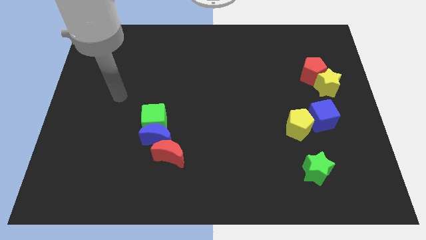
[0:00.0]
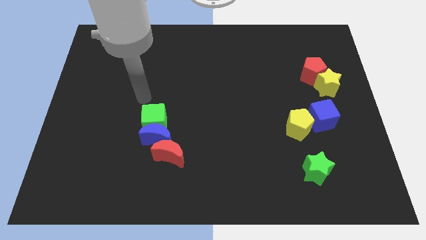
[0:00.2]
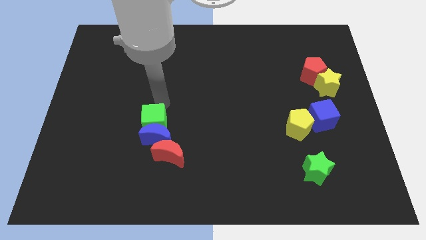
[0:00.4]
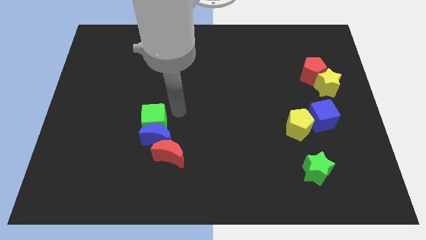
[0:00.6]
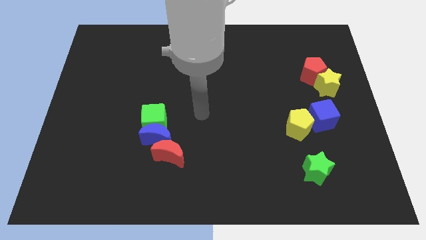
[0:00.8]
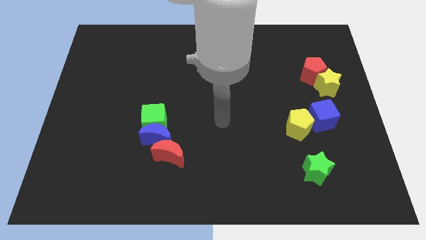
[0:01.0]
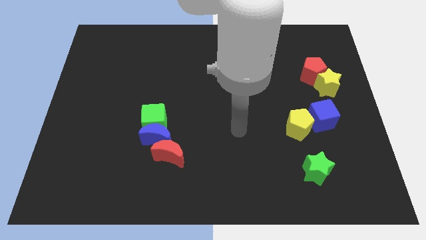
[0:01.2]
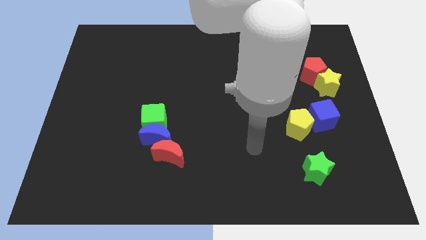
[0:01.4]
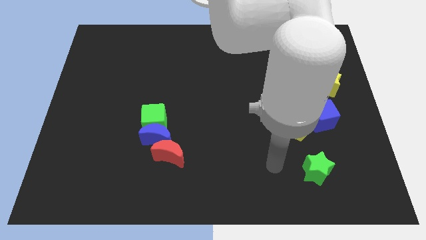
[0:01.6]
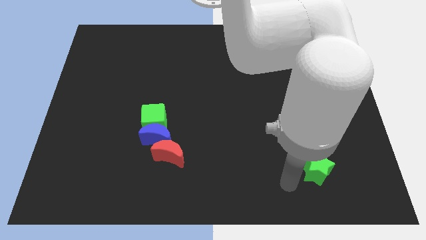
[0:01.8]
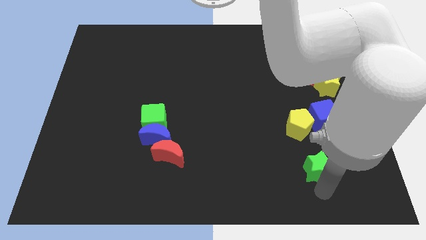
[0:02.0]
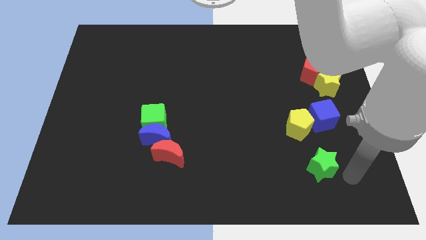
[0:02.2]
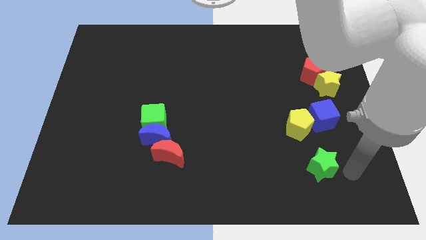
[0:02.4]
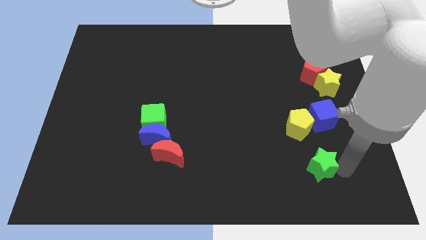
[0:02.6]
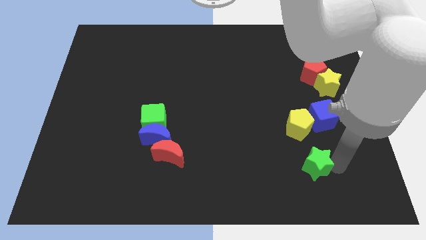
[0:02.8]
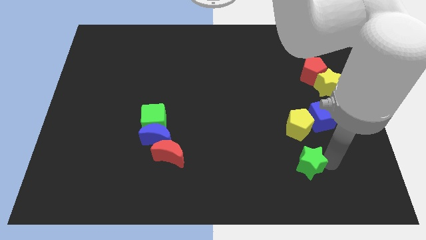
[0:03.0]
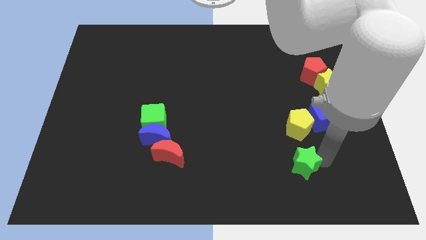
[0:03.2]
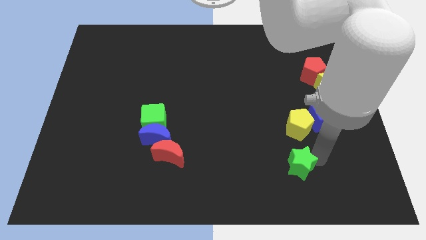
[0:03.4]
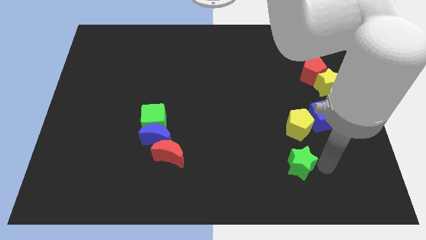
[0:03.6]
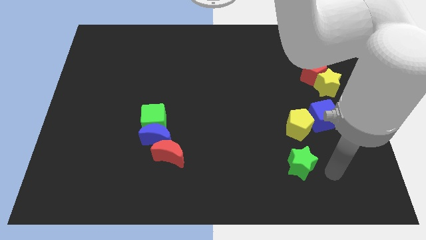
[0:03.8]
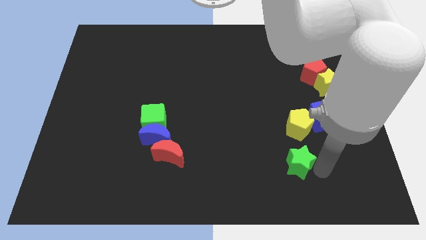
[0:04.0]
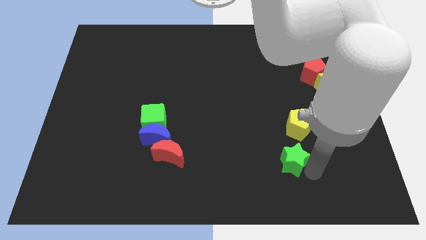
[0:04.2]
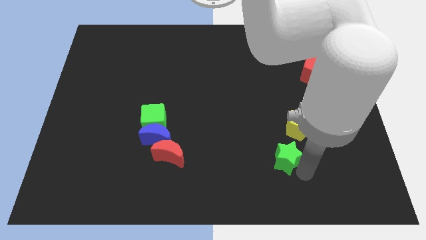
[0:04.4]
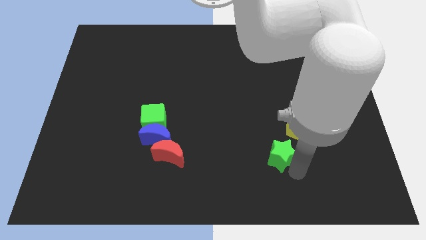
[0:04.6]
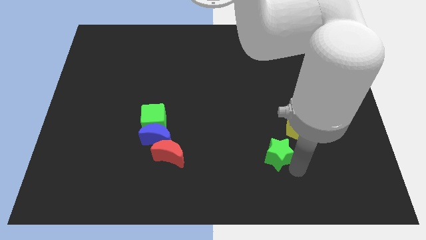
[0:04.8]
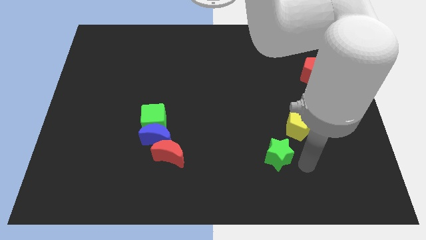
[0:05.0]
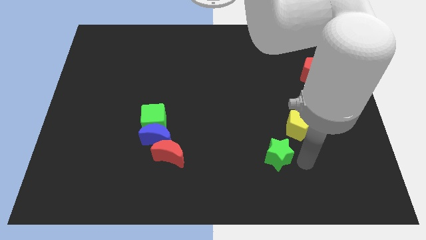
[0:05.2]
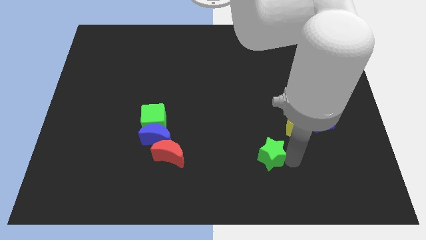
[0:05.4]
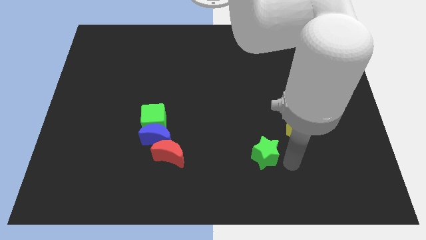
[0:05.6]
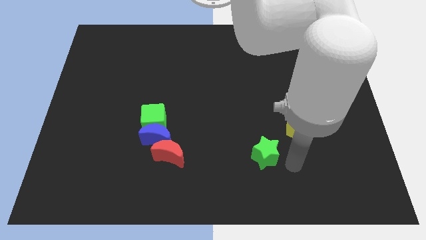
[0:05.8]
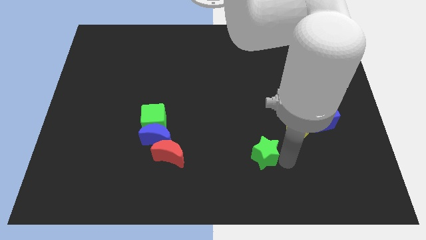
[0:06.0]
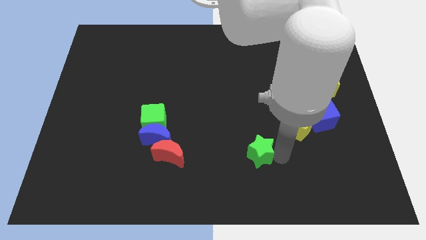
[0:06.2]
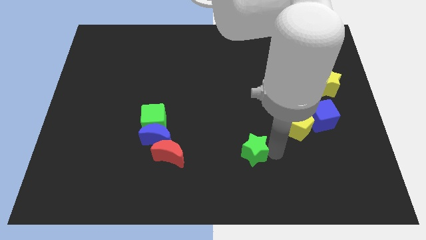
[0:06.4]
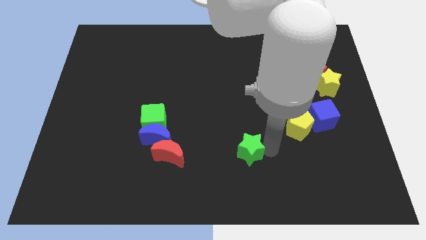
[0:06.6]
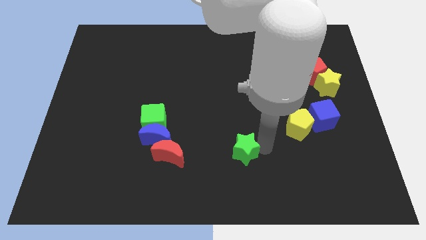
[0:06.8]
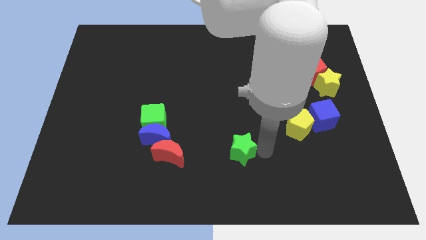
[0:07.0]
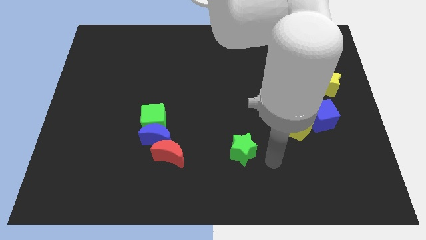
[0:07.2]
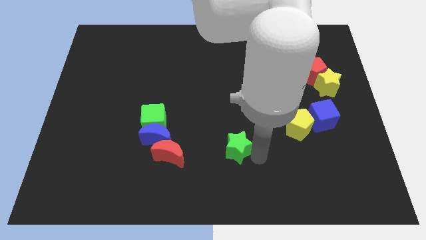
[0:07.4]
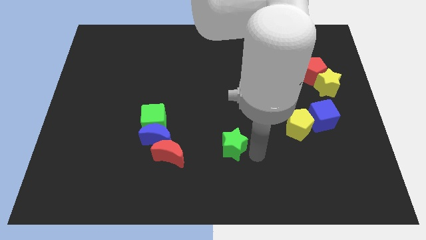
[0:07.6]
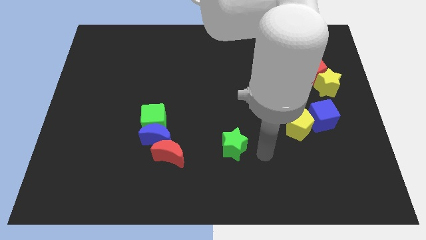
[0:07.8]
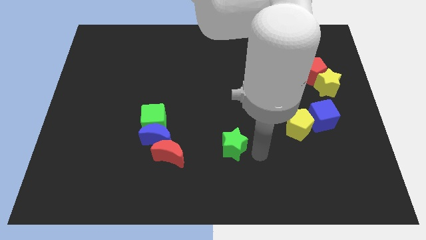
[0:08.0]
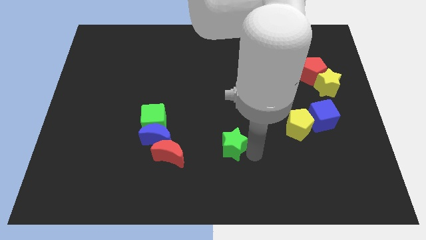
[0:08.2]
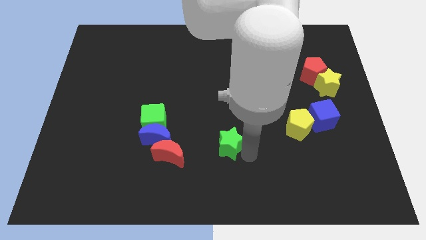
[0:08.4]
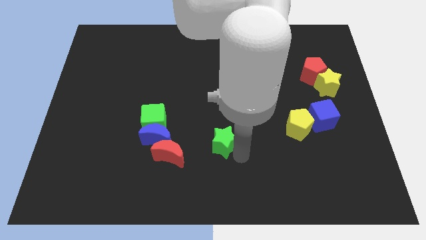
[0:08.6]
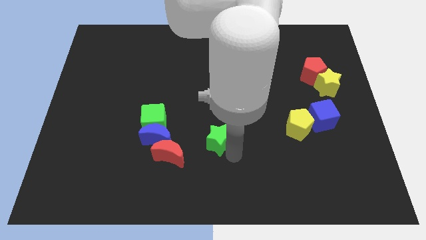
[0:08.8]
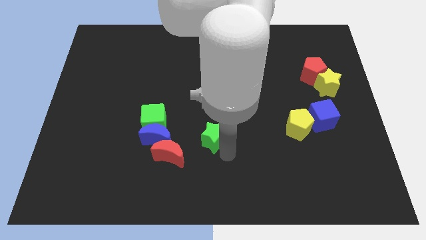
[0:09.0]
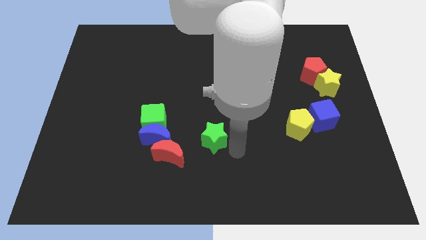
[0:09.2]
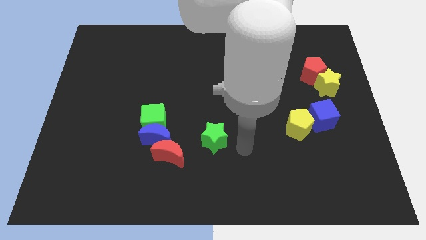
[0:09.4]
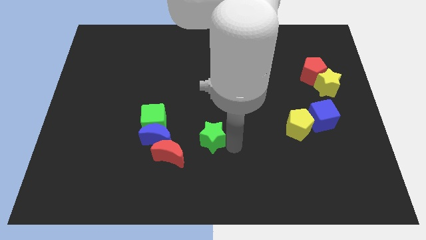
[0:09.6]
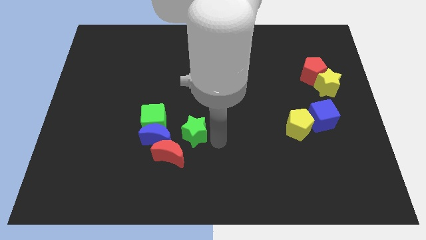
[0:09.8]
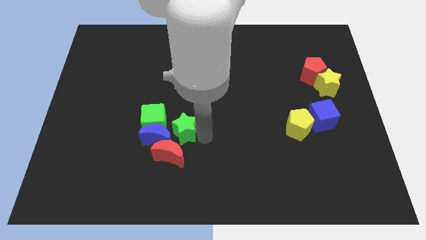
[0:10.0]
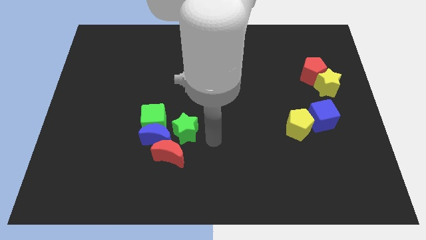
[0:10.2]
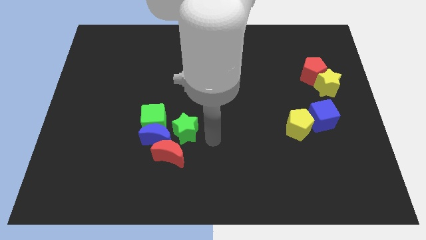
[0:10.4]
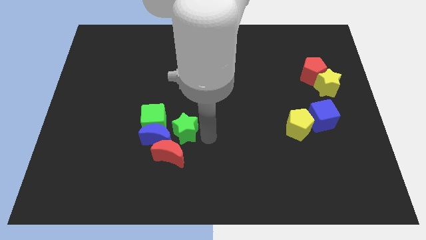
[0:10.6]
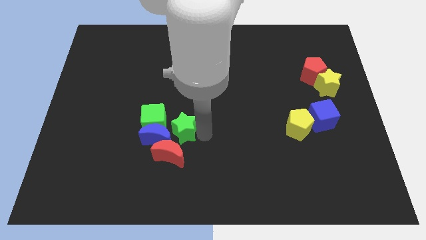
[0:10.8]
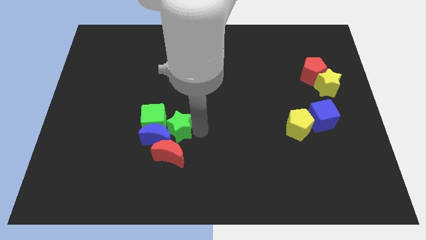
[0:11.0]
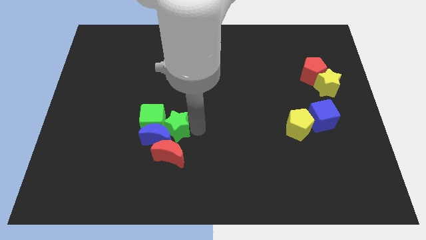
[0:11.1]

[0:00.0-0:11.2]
put the green star next to the green cube

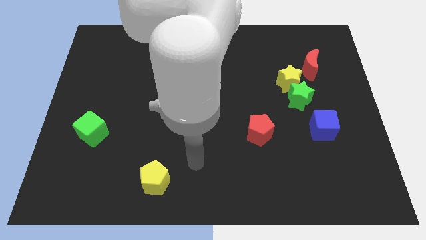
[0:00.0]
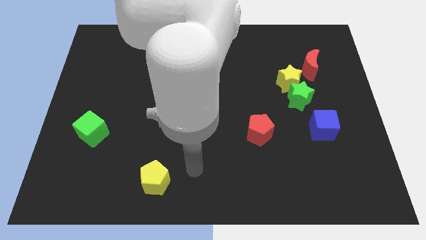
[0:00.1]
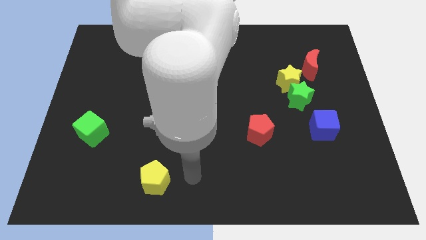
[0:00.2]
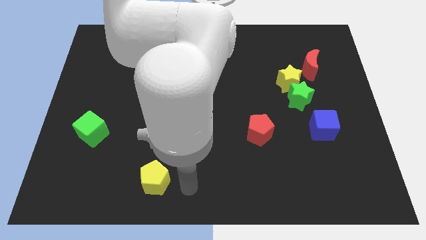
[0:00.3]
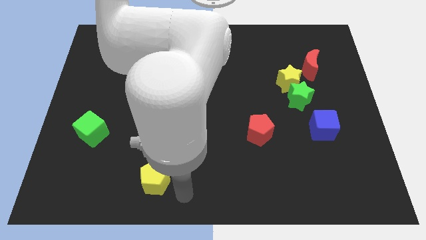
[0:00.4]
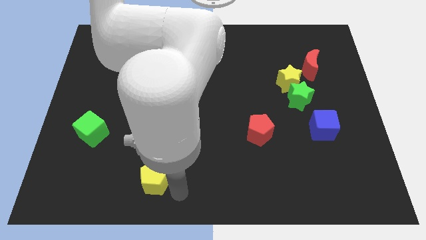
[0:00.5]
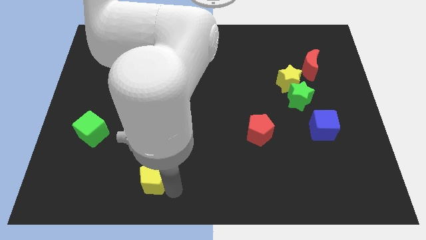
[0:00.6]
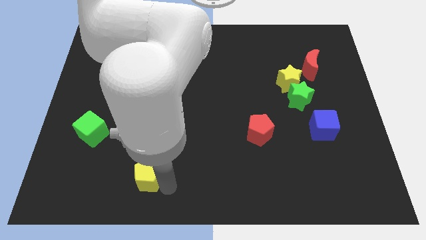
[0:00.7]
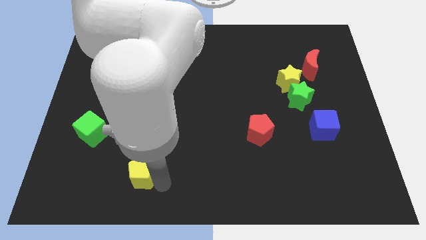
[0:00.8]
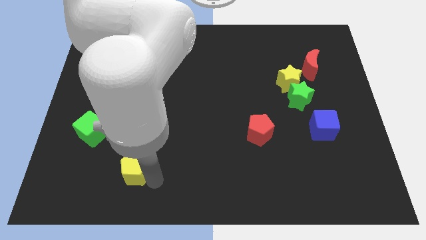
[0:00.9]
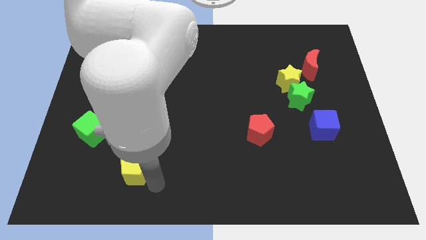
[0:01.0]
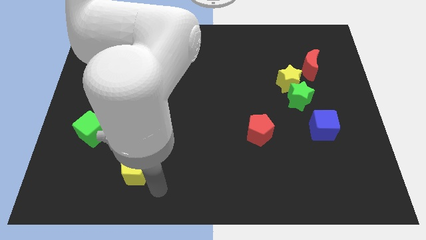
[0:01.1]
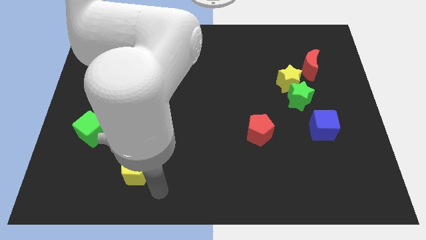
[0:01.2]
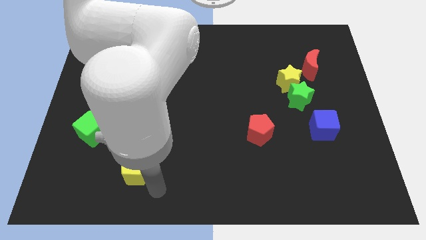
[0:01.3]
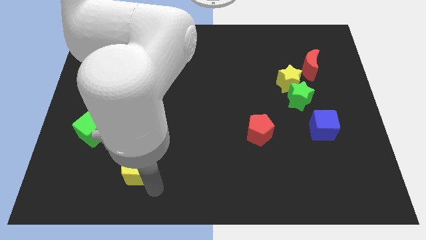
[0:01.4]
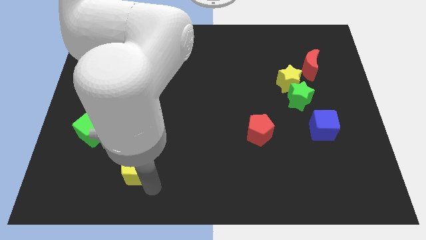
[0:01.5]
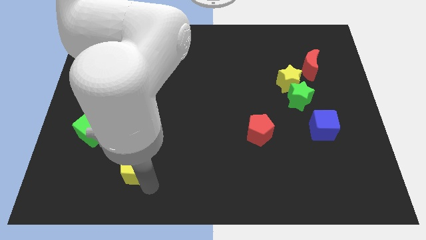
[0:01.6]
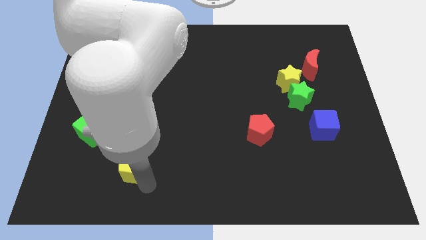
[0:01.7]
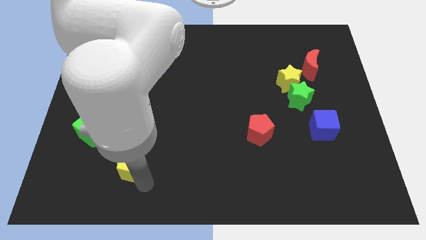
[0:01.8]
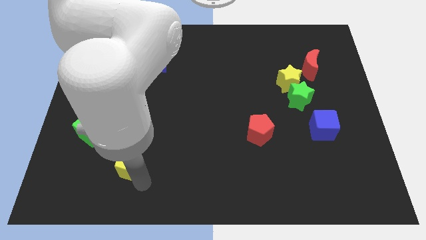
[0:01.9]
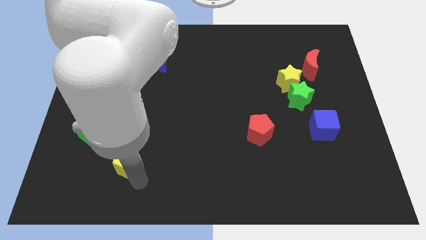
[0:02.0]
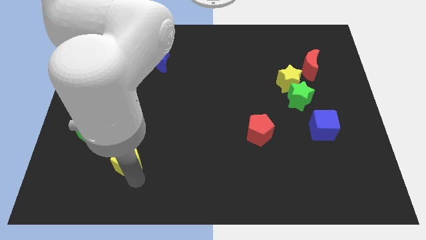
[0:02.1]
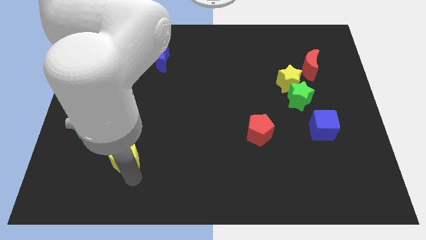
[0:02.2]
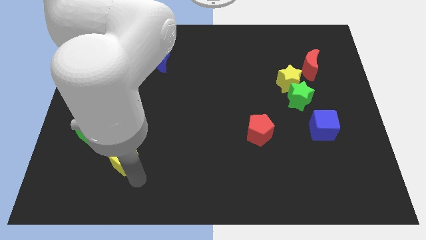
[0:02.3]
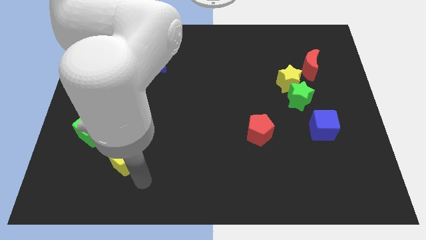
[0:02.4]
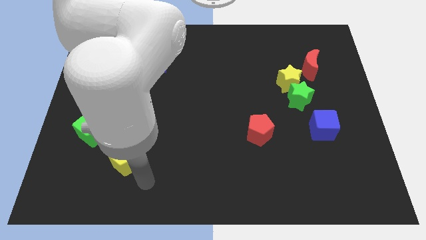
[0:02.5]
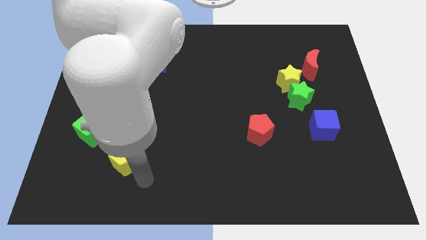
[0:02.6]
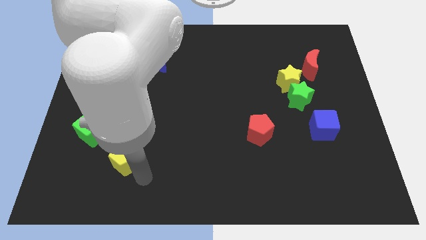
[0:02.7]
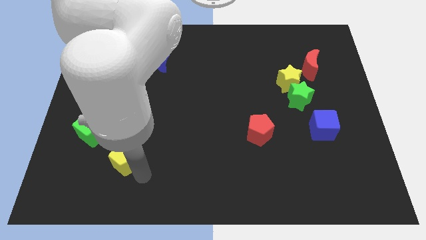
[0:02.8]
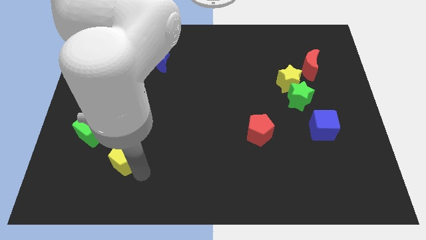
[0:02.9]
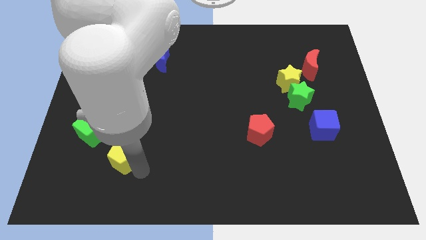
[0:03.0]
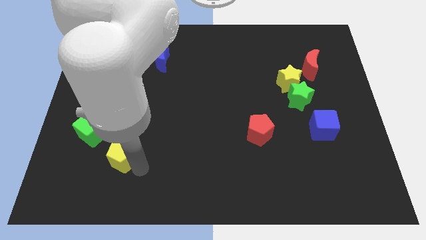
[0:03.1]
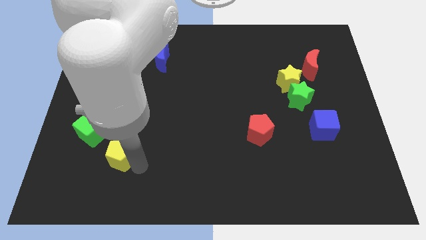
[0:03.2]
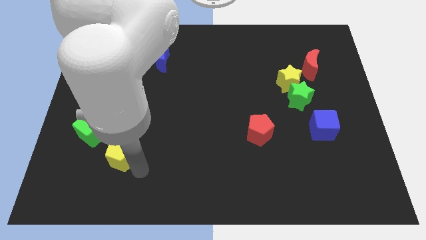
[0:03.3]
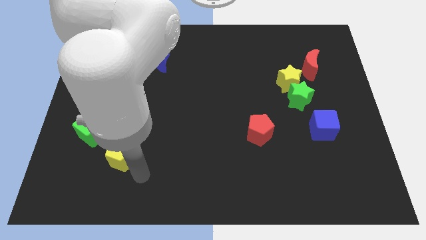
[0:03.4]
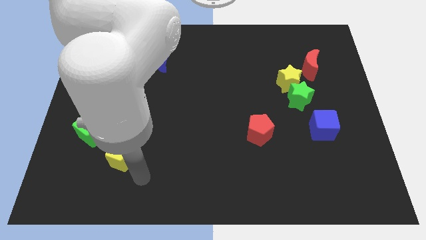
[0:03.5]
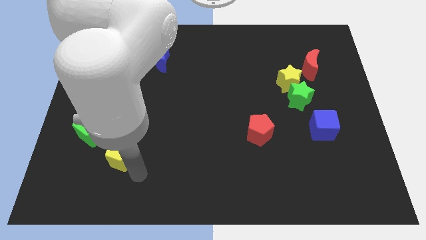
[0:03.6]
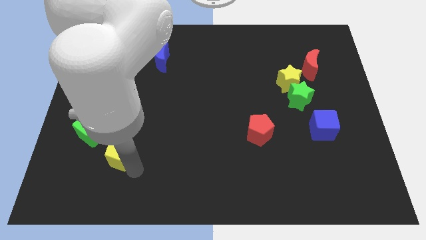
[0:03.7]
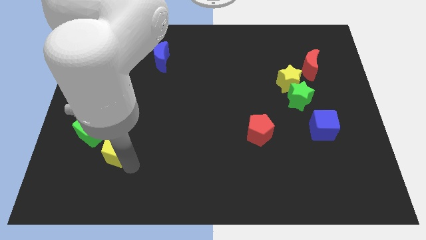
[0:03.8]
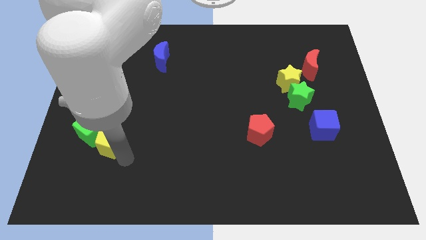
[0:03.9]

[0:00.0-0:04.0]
put the yellow pentagon close to the green cube
